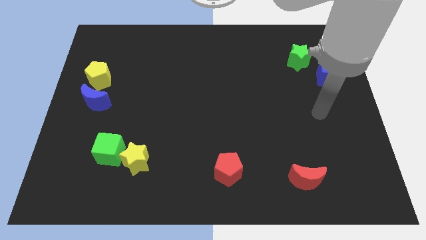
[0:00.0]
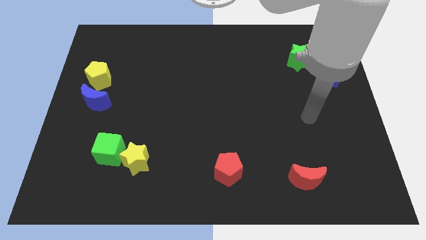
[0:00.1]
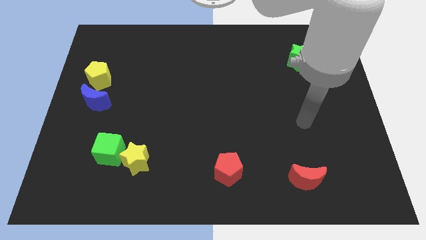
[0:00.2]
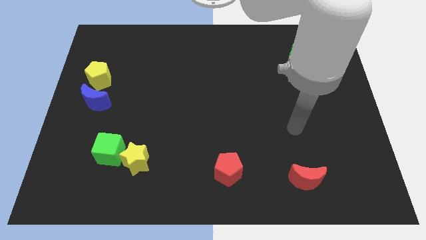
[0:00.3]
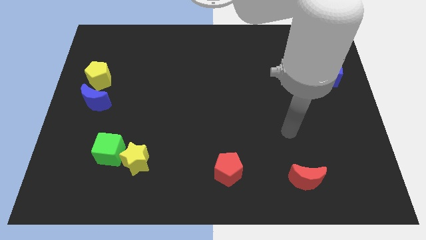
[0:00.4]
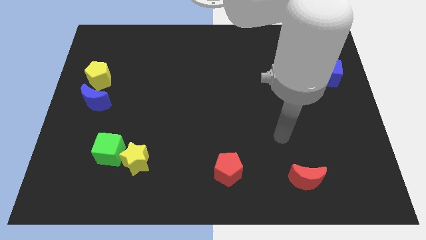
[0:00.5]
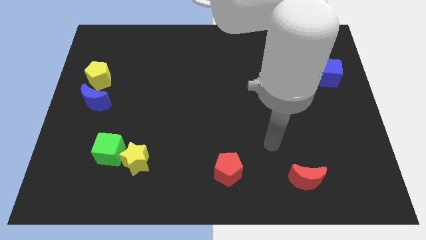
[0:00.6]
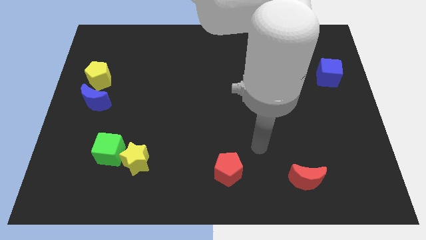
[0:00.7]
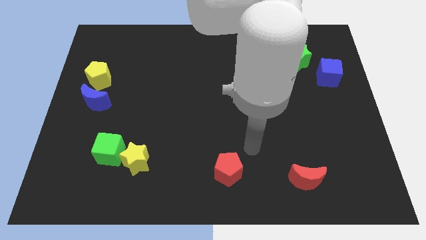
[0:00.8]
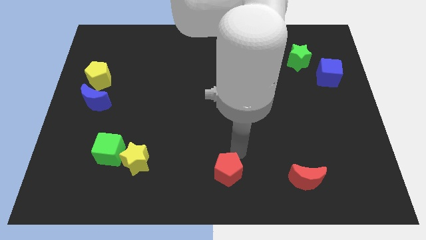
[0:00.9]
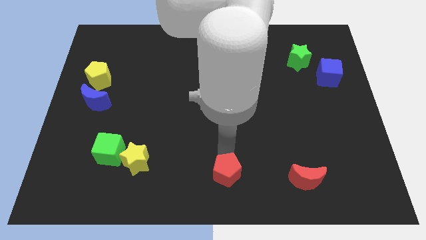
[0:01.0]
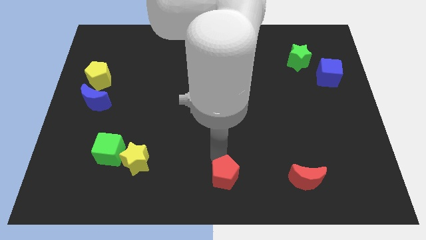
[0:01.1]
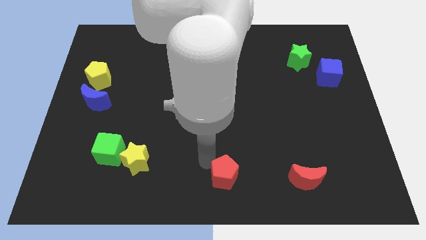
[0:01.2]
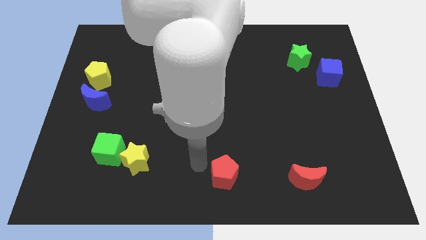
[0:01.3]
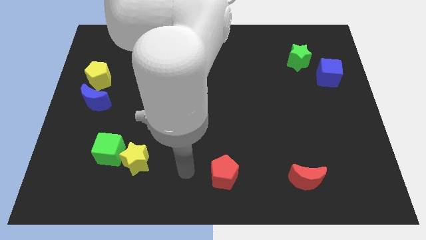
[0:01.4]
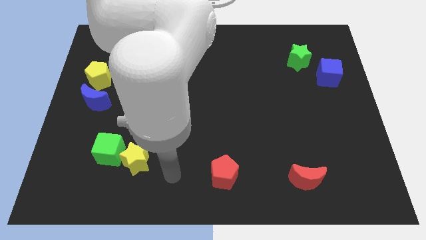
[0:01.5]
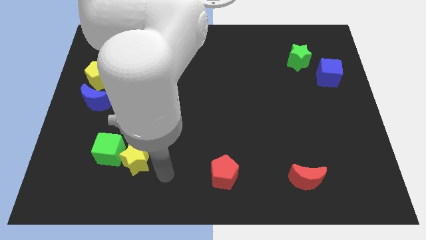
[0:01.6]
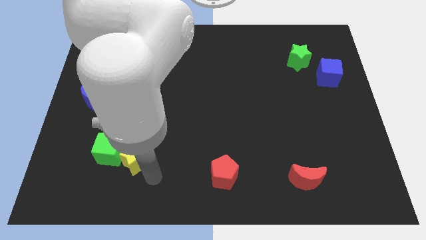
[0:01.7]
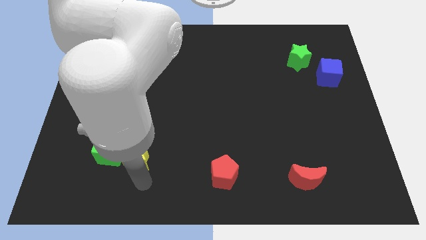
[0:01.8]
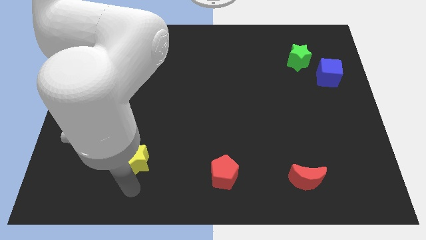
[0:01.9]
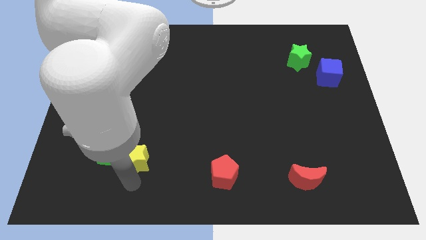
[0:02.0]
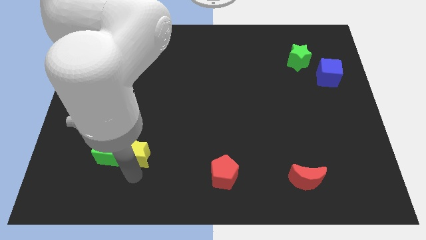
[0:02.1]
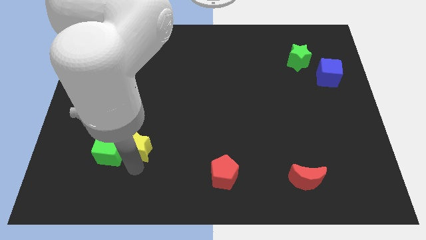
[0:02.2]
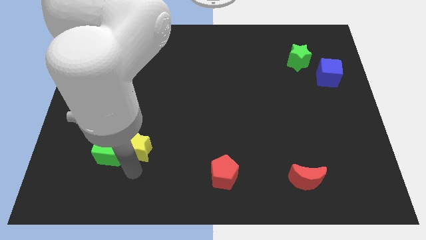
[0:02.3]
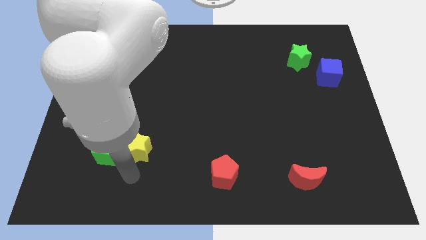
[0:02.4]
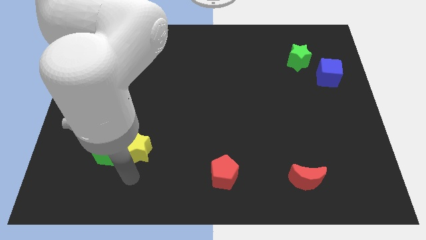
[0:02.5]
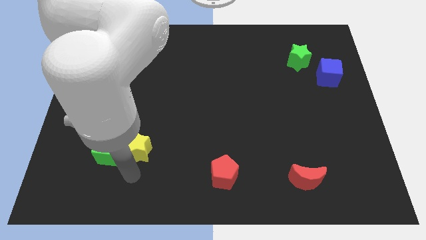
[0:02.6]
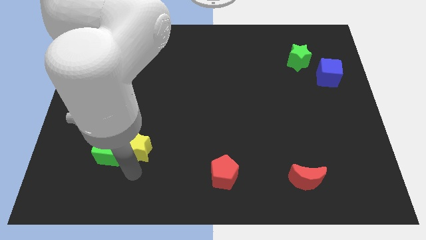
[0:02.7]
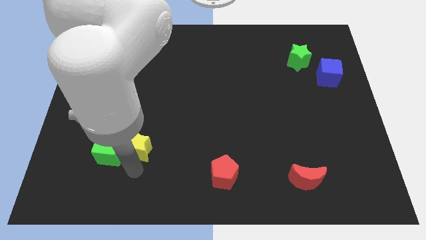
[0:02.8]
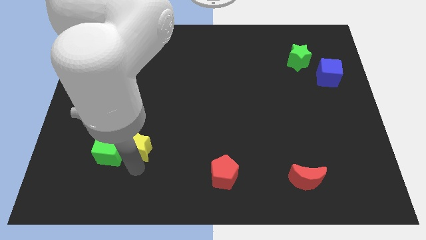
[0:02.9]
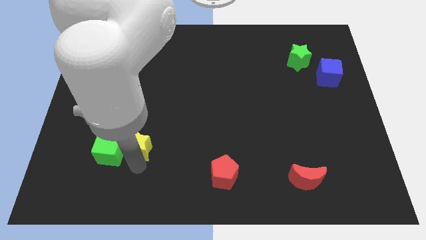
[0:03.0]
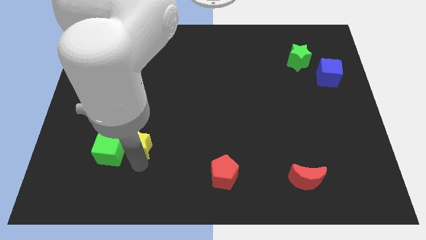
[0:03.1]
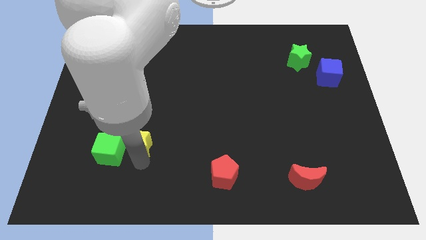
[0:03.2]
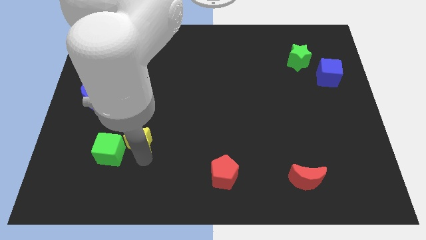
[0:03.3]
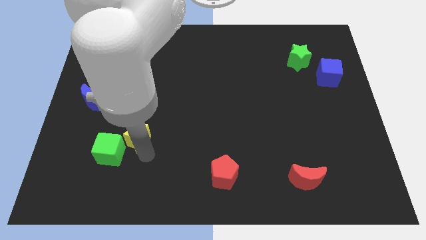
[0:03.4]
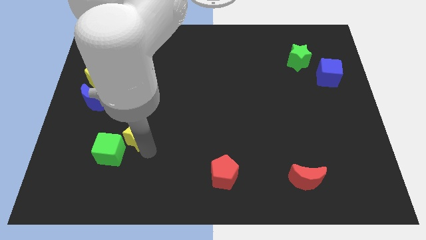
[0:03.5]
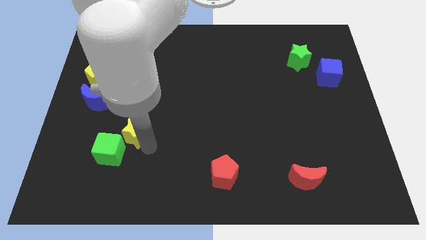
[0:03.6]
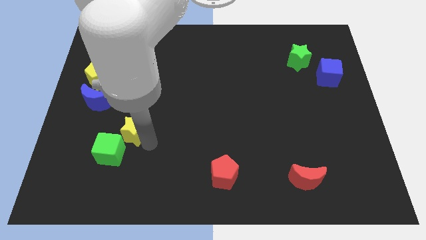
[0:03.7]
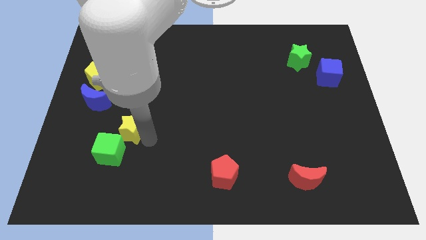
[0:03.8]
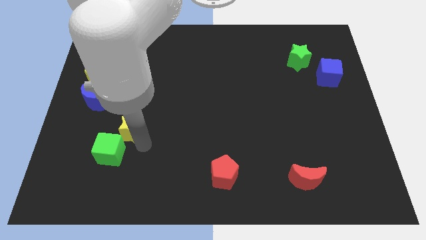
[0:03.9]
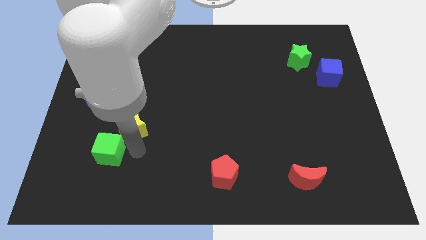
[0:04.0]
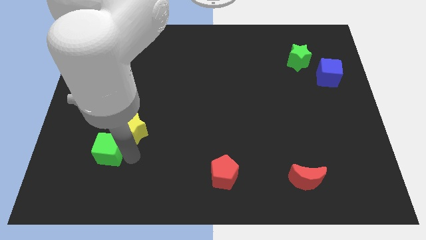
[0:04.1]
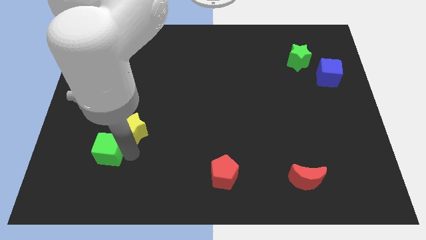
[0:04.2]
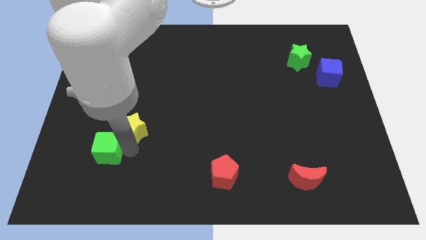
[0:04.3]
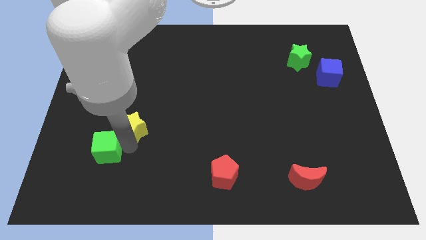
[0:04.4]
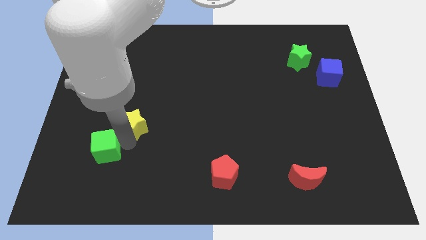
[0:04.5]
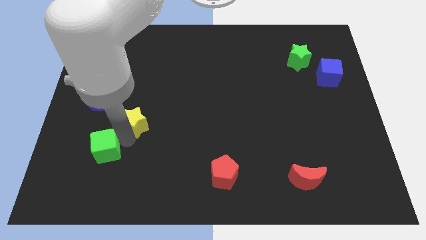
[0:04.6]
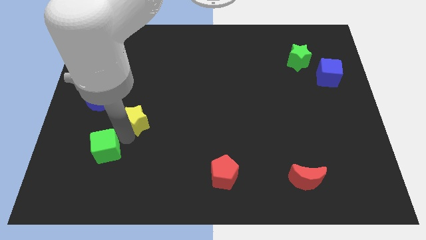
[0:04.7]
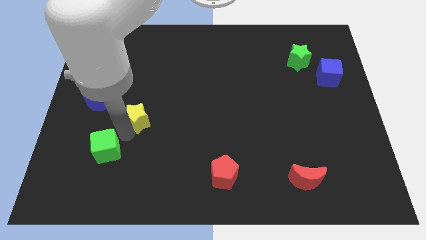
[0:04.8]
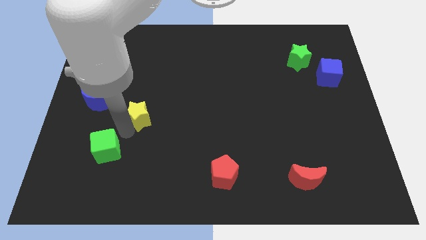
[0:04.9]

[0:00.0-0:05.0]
slide the yellow star right of the blue moon

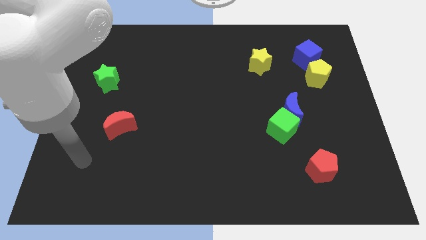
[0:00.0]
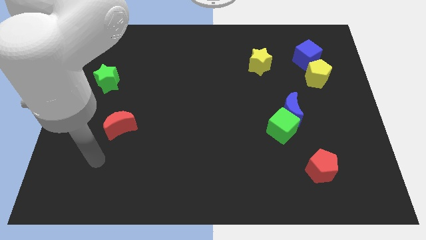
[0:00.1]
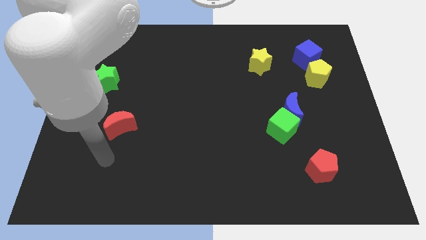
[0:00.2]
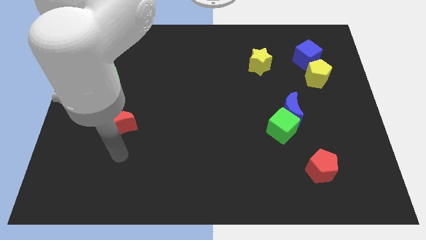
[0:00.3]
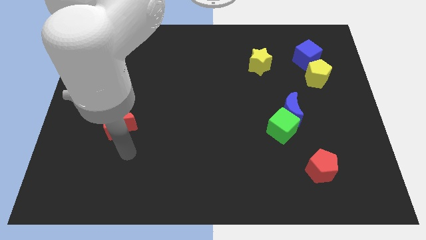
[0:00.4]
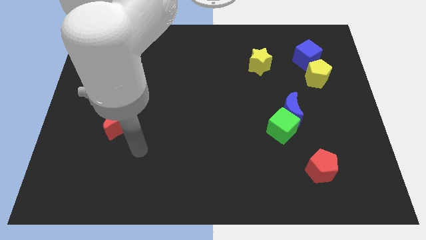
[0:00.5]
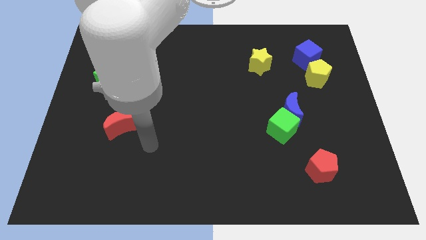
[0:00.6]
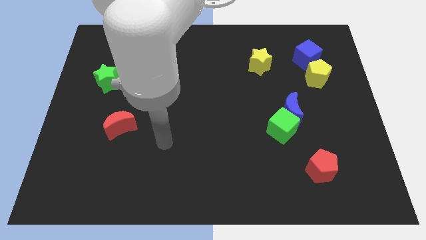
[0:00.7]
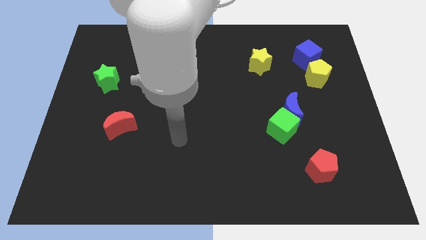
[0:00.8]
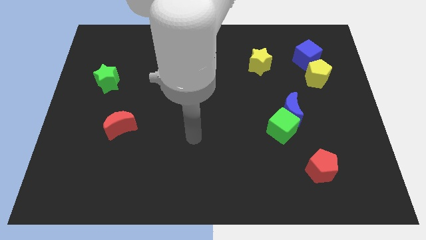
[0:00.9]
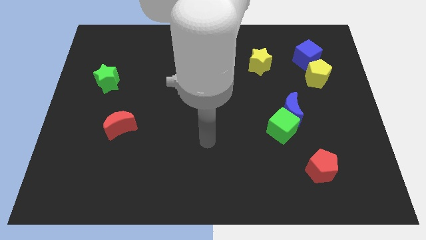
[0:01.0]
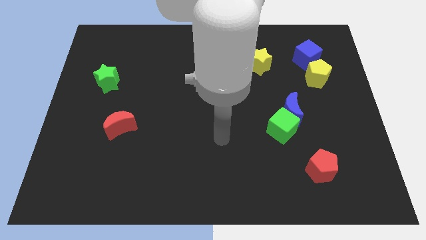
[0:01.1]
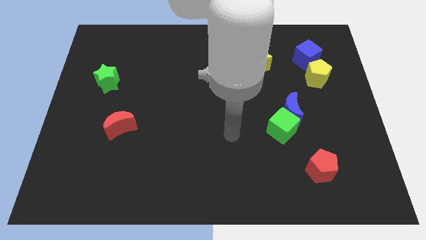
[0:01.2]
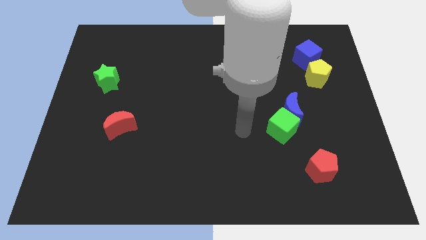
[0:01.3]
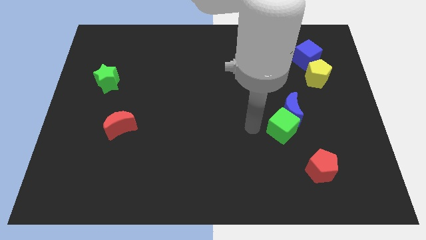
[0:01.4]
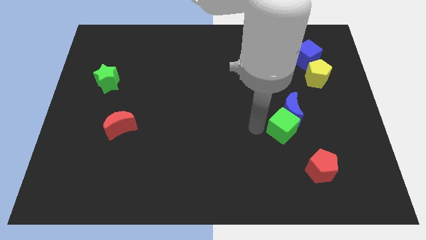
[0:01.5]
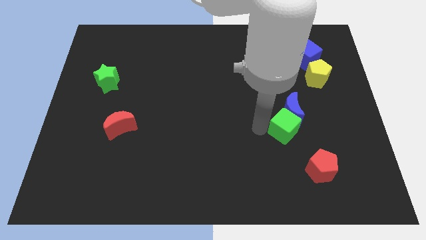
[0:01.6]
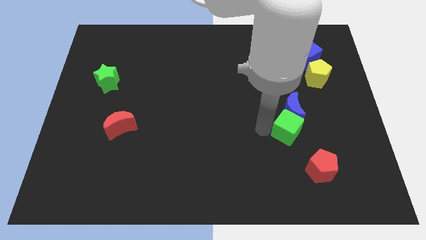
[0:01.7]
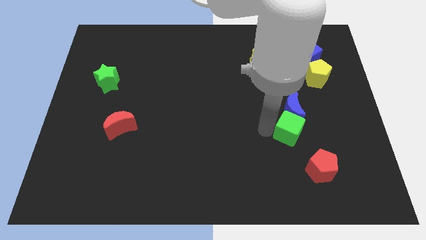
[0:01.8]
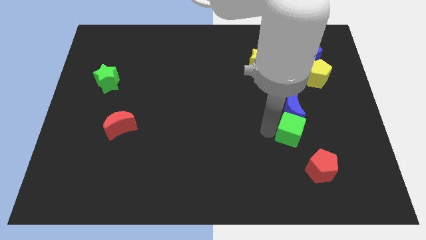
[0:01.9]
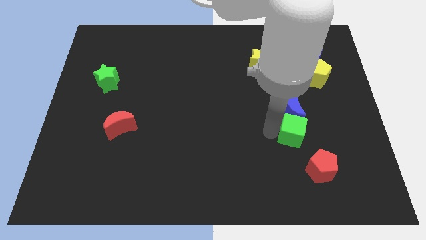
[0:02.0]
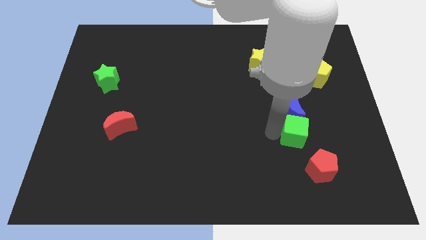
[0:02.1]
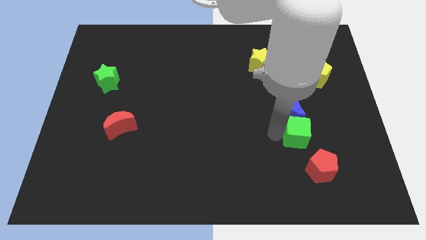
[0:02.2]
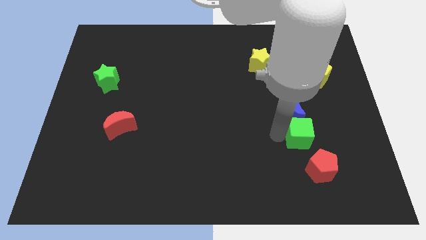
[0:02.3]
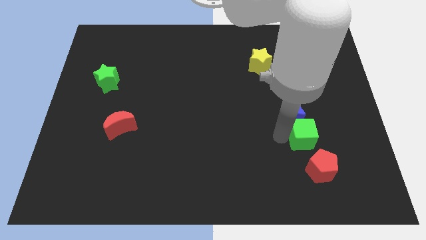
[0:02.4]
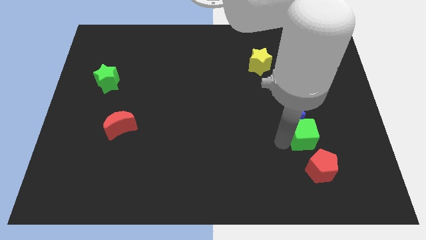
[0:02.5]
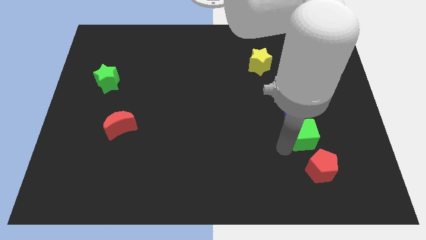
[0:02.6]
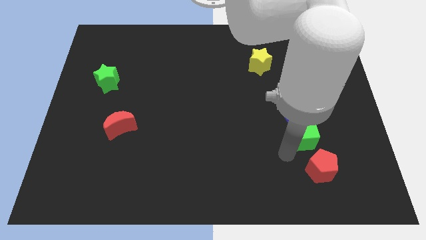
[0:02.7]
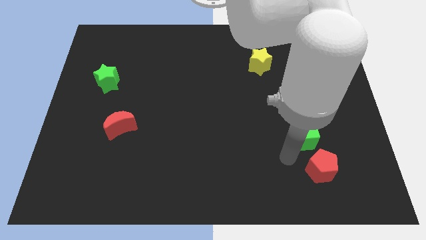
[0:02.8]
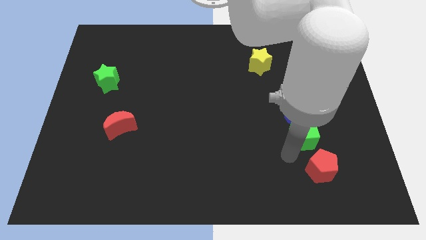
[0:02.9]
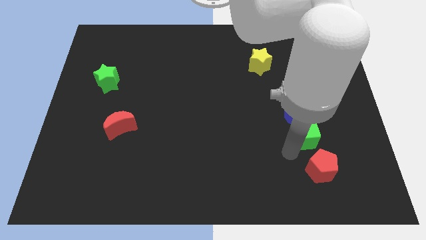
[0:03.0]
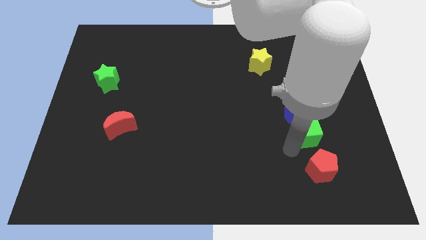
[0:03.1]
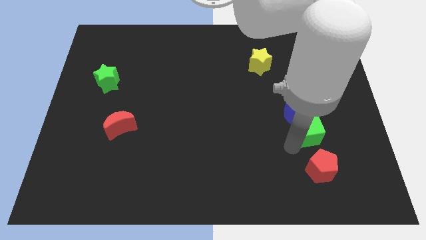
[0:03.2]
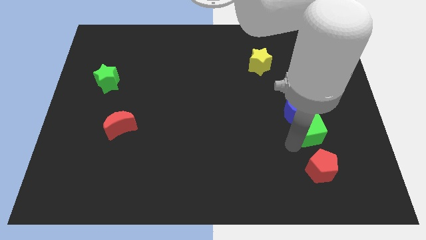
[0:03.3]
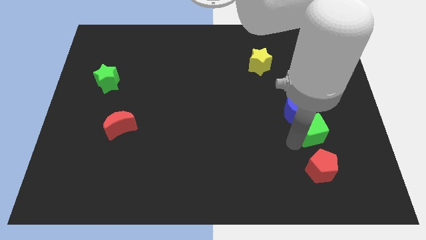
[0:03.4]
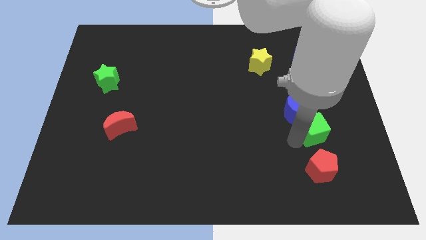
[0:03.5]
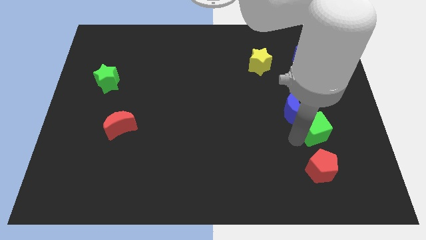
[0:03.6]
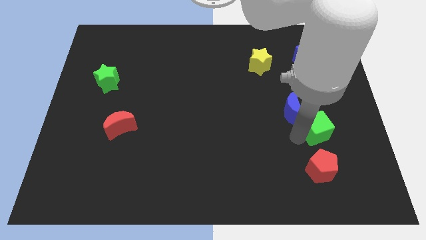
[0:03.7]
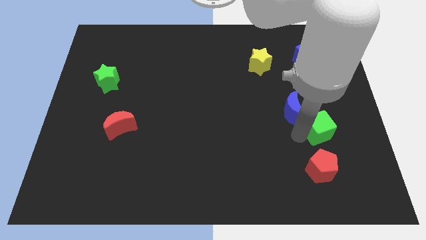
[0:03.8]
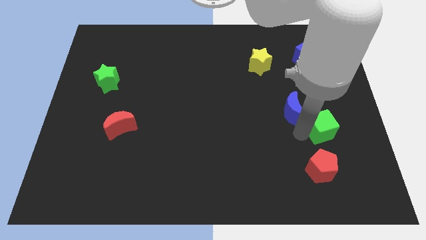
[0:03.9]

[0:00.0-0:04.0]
slide the green cube below the yellow pentagon
